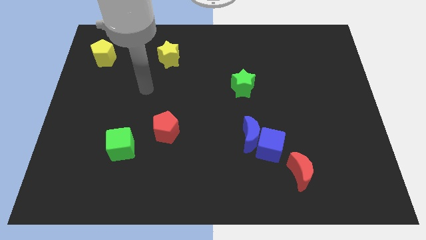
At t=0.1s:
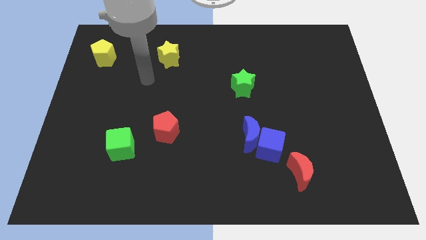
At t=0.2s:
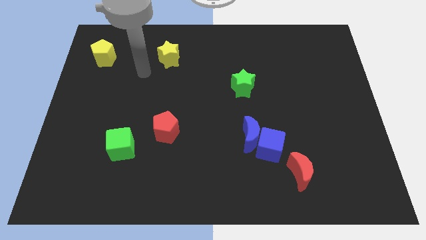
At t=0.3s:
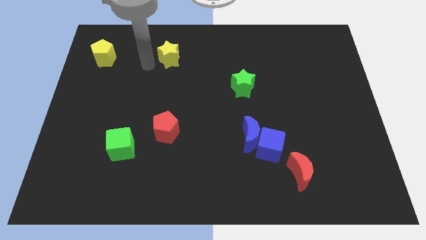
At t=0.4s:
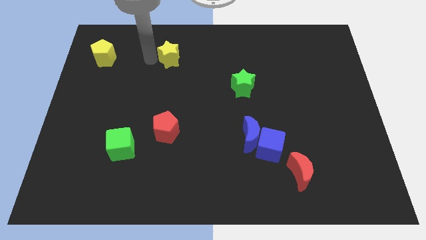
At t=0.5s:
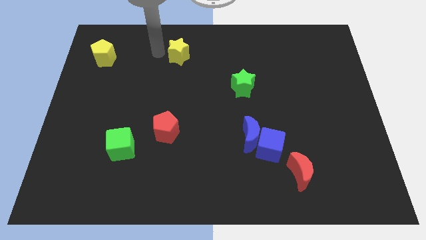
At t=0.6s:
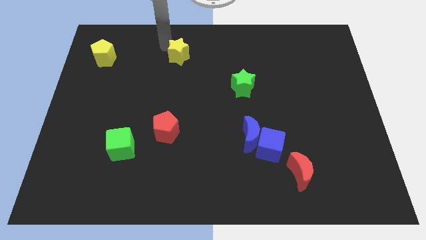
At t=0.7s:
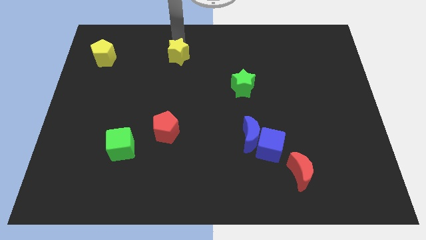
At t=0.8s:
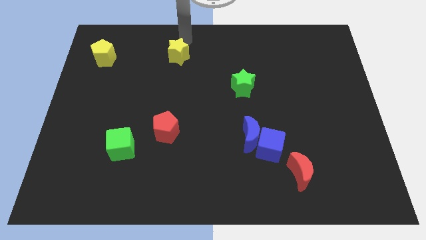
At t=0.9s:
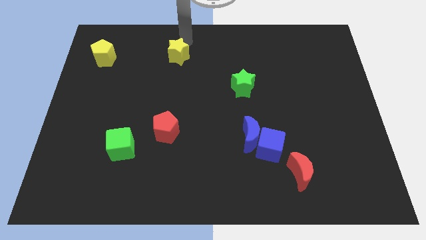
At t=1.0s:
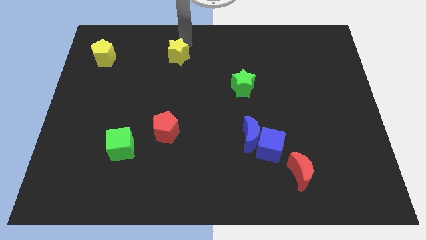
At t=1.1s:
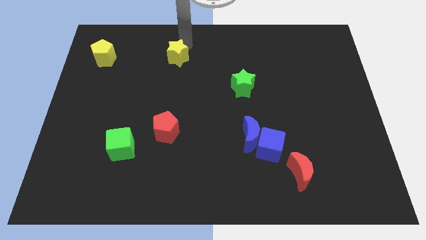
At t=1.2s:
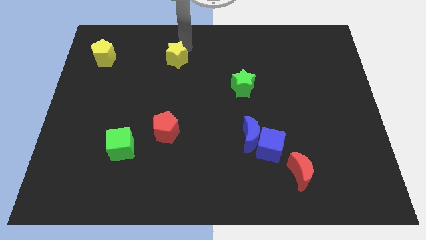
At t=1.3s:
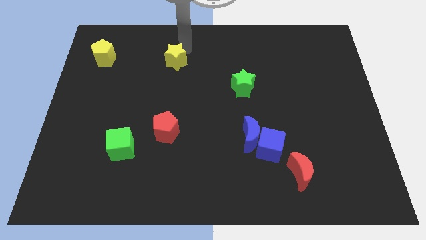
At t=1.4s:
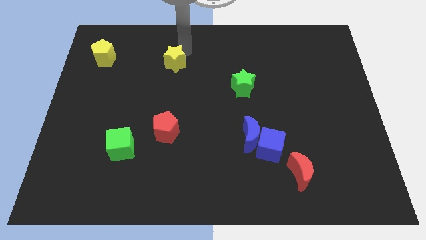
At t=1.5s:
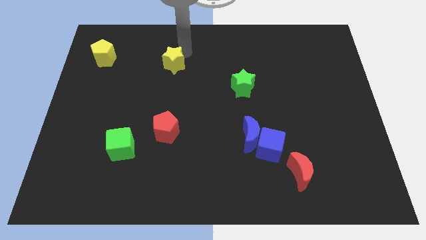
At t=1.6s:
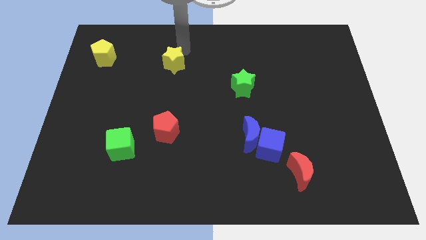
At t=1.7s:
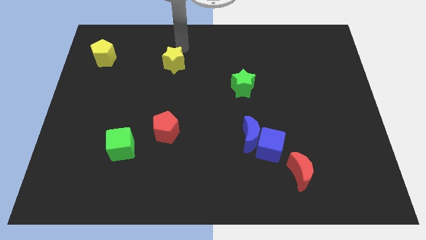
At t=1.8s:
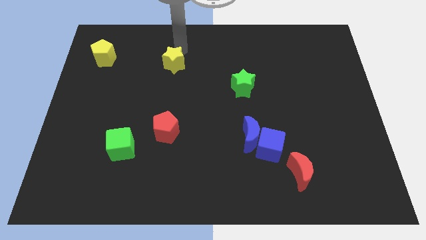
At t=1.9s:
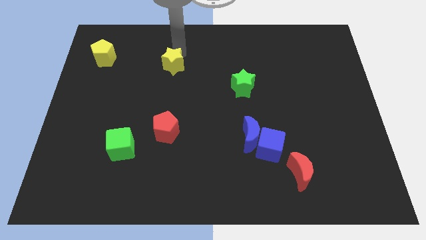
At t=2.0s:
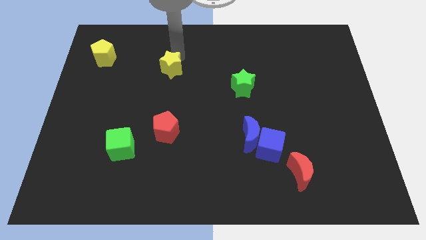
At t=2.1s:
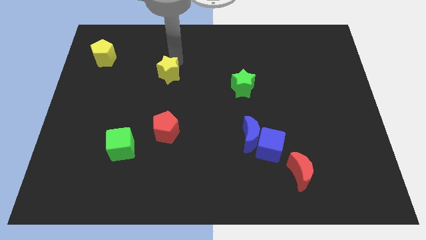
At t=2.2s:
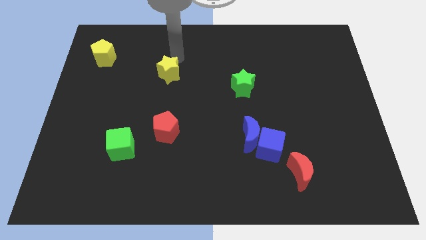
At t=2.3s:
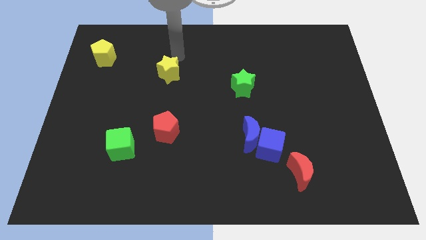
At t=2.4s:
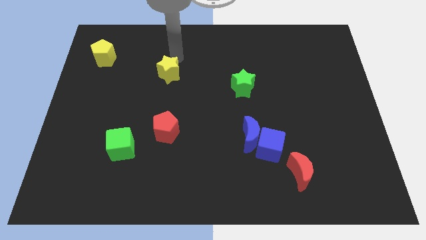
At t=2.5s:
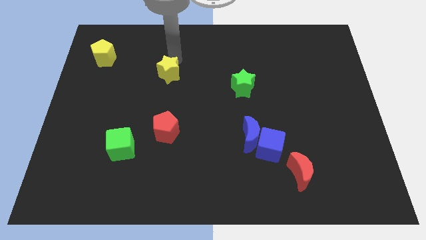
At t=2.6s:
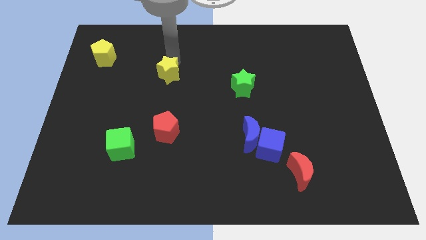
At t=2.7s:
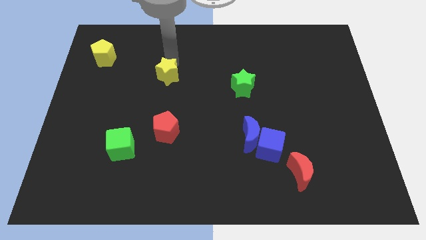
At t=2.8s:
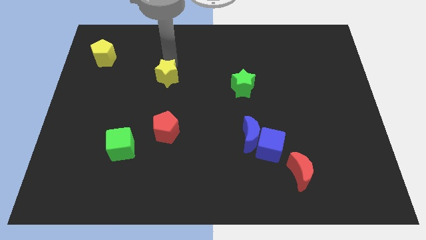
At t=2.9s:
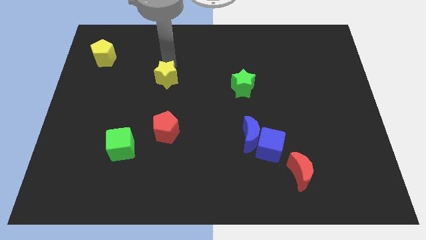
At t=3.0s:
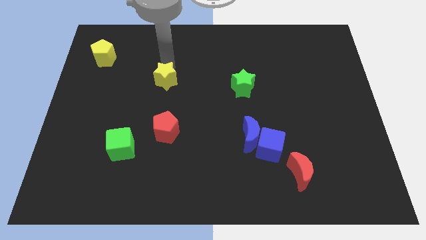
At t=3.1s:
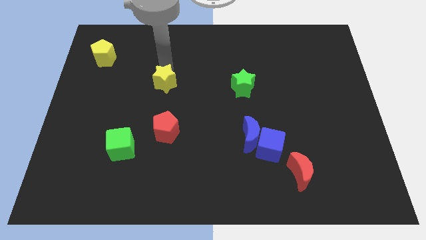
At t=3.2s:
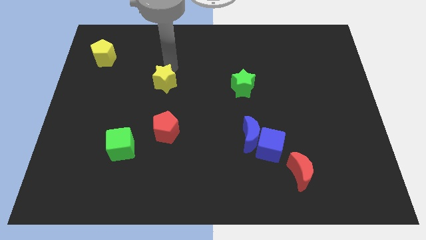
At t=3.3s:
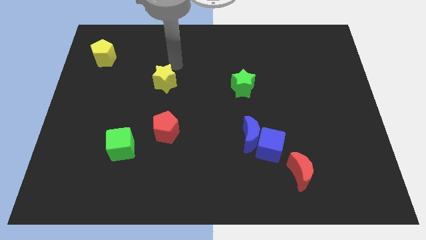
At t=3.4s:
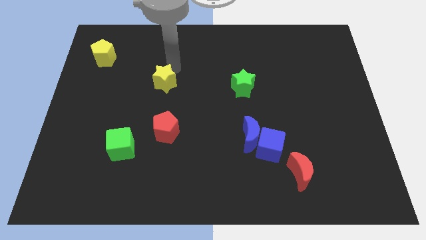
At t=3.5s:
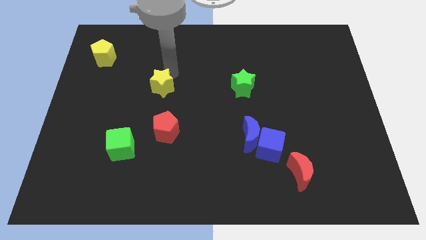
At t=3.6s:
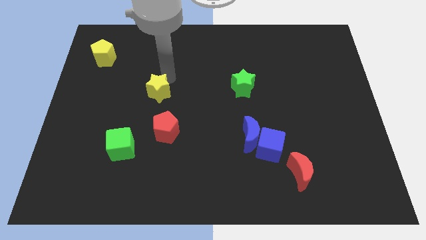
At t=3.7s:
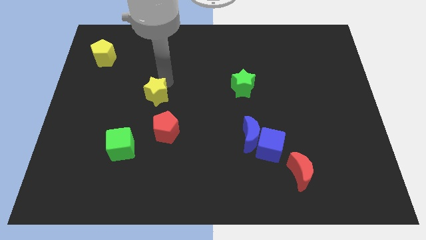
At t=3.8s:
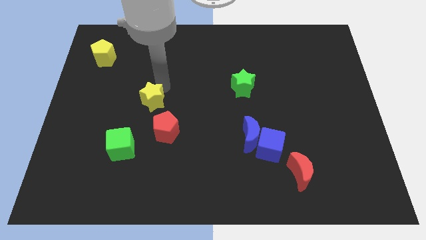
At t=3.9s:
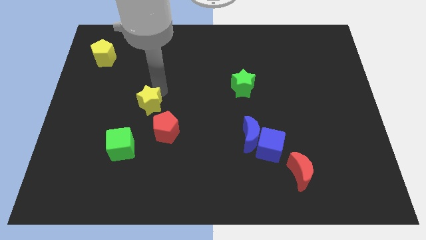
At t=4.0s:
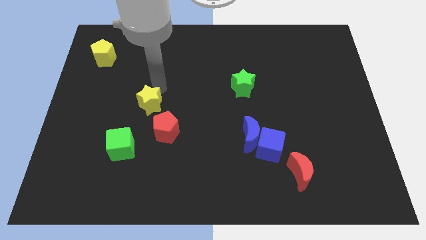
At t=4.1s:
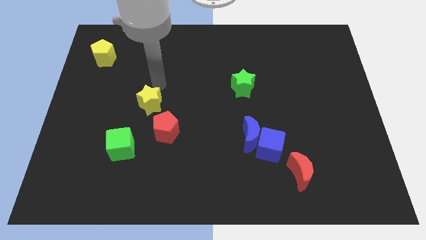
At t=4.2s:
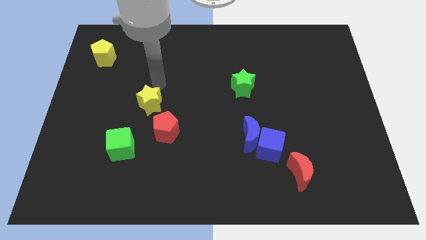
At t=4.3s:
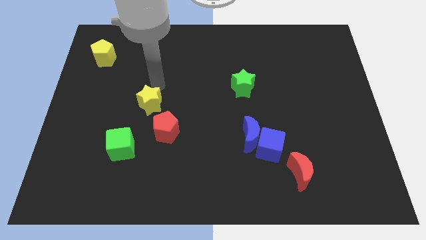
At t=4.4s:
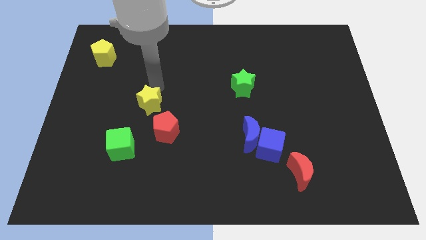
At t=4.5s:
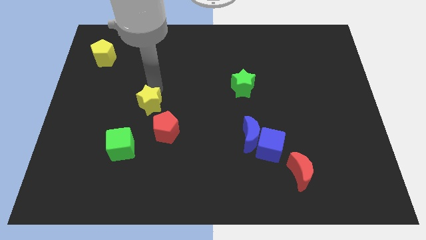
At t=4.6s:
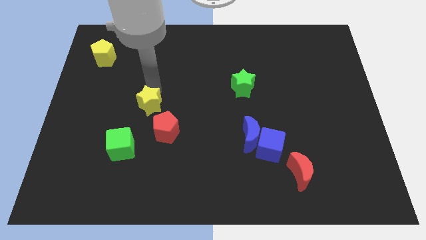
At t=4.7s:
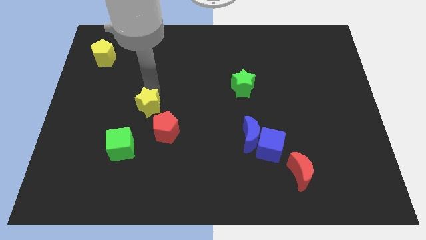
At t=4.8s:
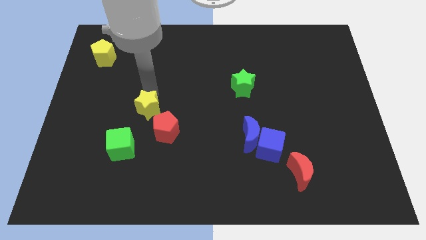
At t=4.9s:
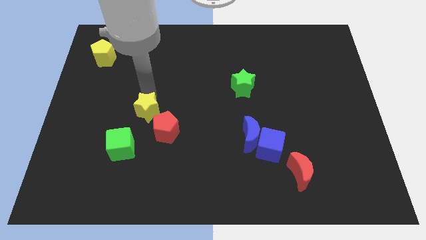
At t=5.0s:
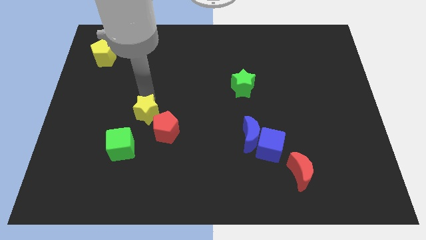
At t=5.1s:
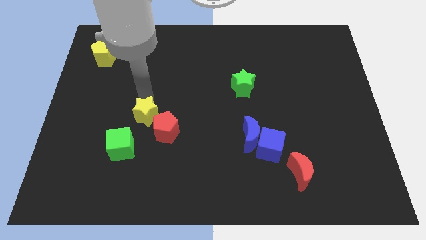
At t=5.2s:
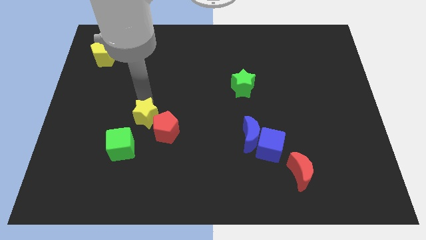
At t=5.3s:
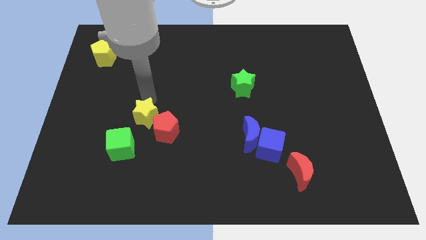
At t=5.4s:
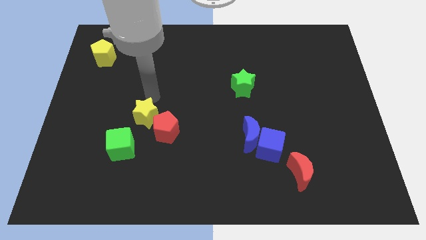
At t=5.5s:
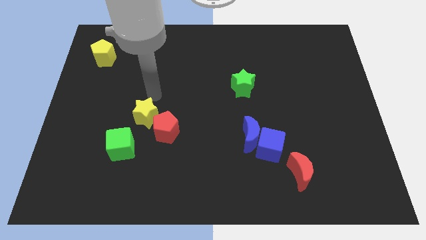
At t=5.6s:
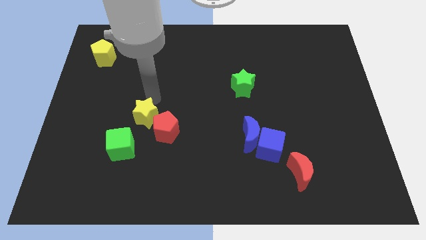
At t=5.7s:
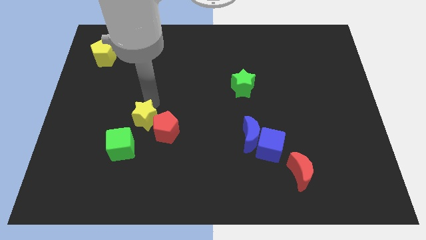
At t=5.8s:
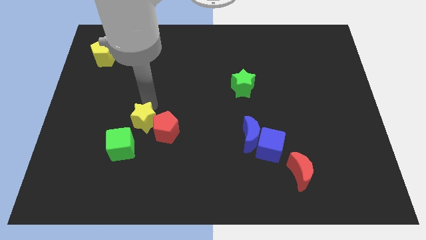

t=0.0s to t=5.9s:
push the yellow star downwards

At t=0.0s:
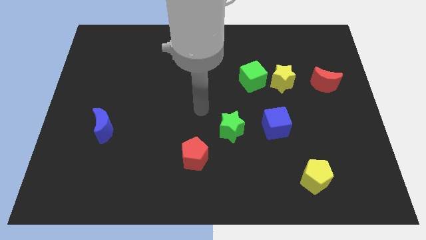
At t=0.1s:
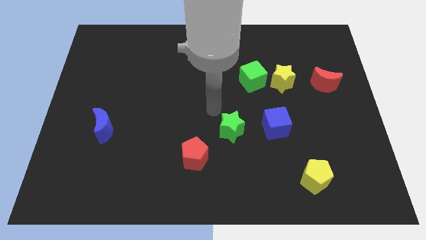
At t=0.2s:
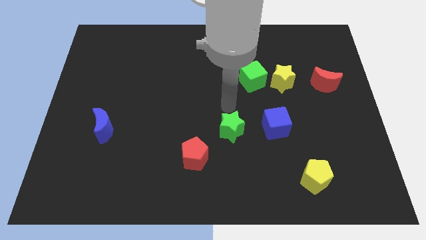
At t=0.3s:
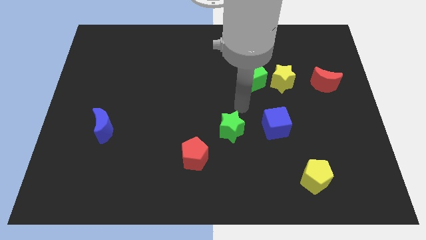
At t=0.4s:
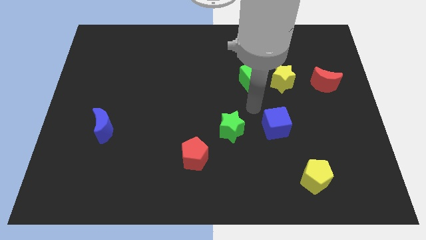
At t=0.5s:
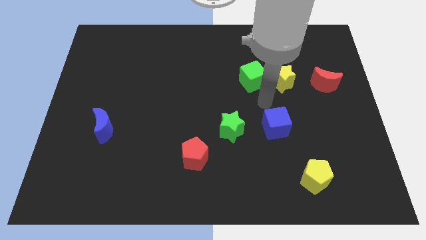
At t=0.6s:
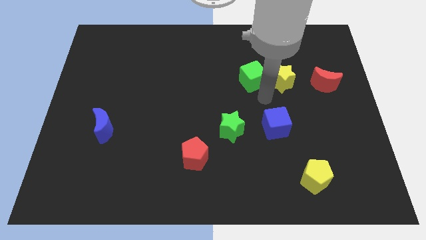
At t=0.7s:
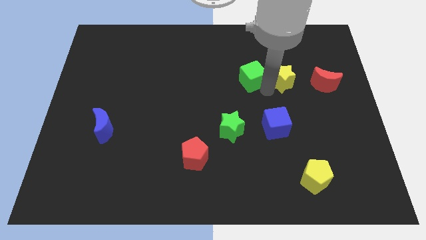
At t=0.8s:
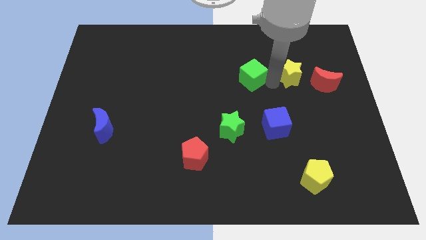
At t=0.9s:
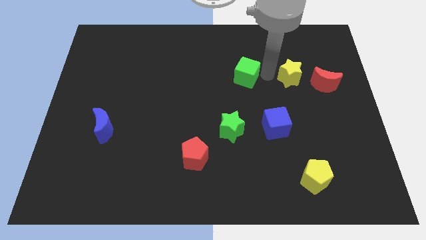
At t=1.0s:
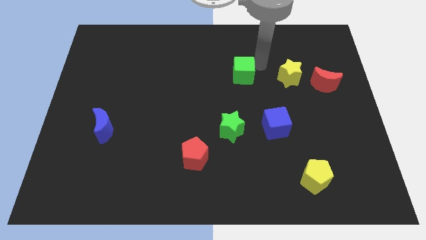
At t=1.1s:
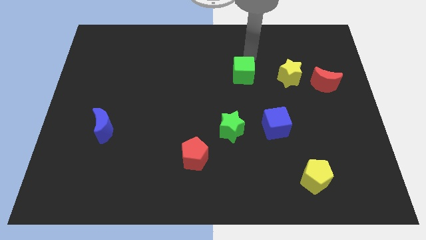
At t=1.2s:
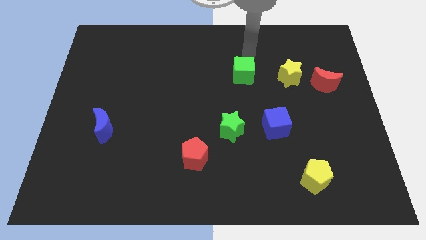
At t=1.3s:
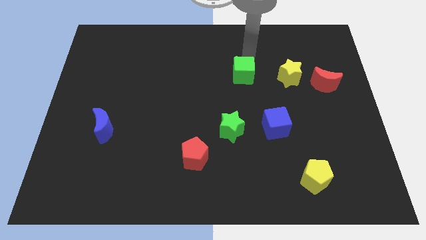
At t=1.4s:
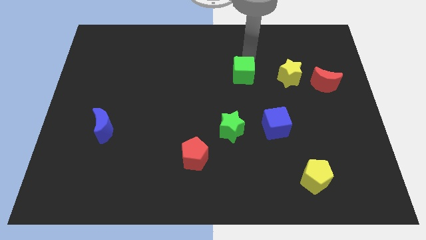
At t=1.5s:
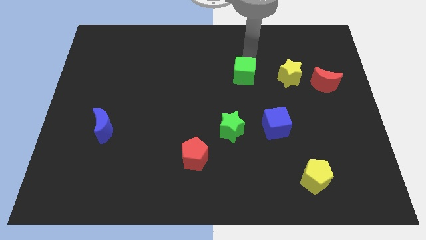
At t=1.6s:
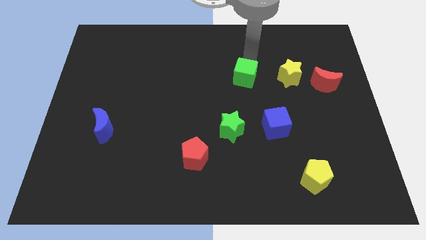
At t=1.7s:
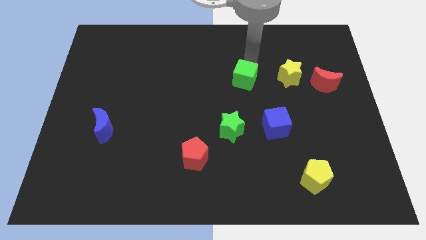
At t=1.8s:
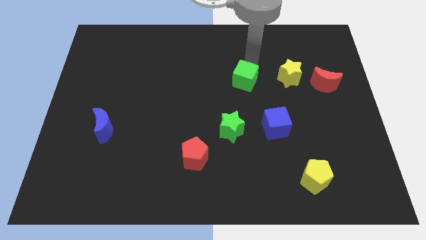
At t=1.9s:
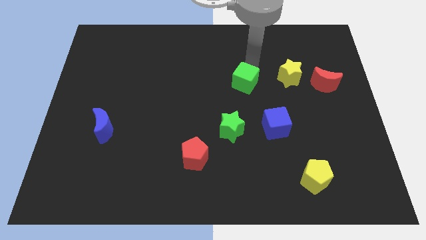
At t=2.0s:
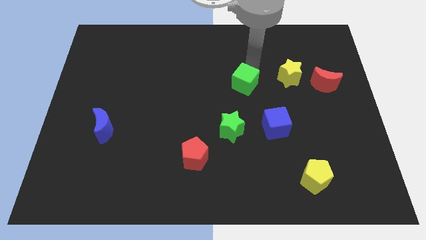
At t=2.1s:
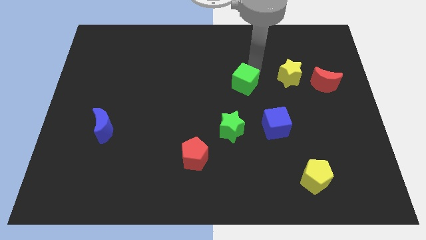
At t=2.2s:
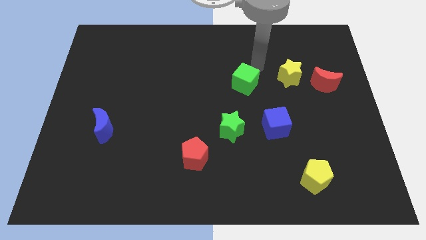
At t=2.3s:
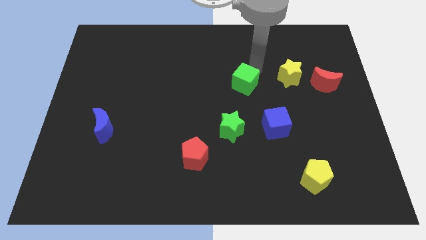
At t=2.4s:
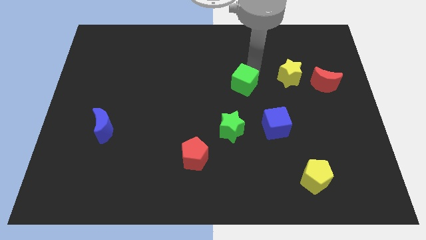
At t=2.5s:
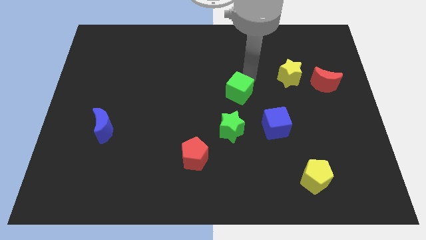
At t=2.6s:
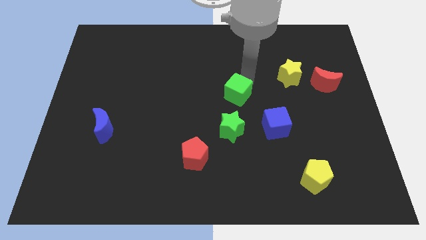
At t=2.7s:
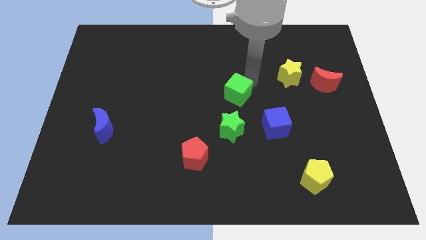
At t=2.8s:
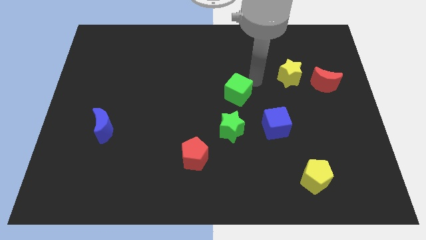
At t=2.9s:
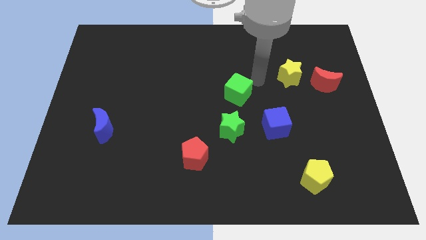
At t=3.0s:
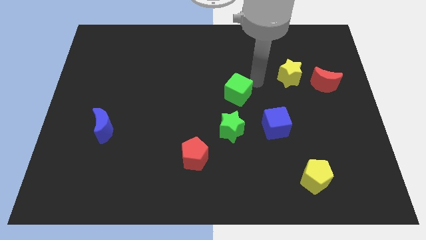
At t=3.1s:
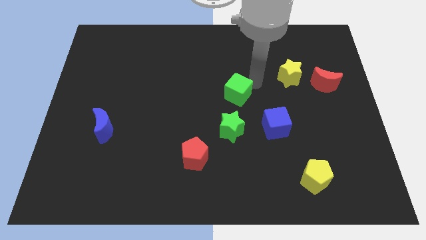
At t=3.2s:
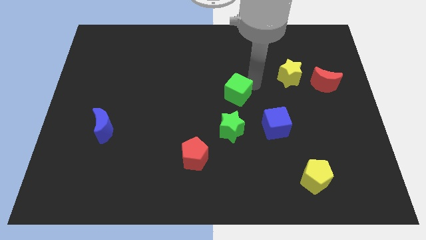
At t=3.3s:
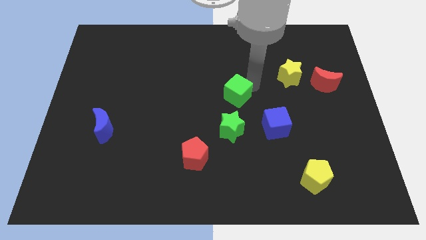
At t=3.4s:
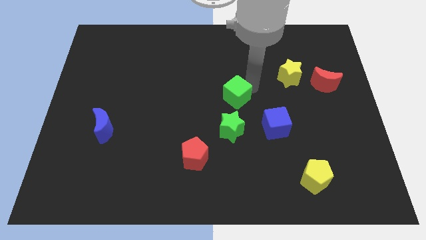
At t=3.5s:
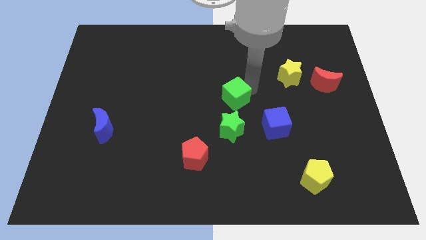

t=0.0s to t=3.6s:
move the green cube downwards and left diagonally slightly
